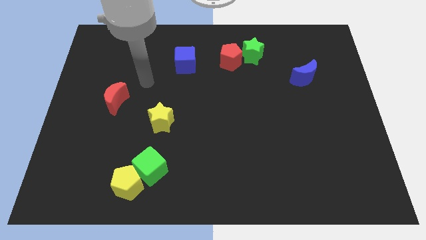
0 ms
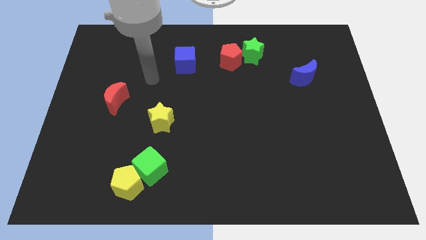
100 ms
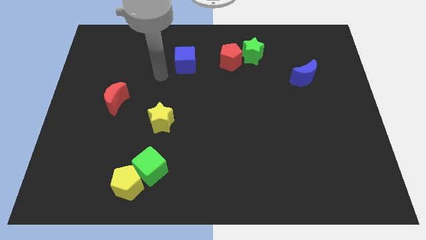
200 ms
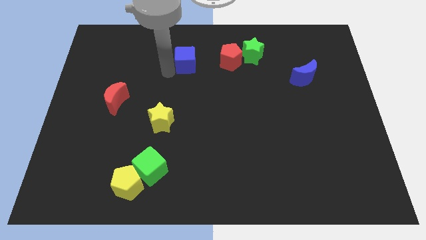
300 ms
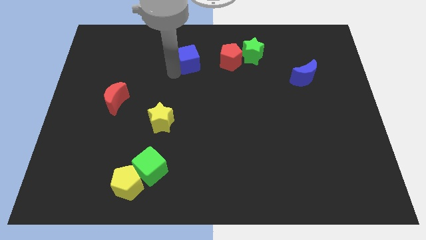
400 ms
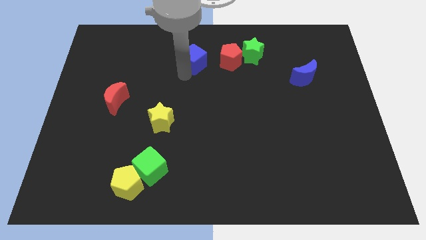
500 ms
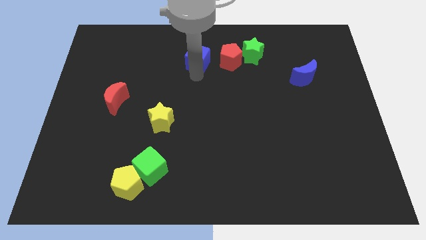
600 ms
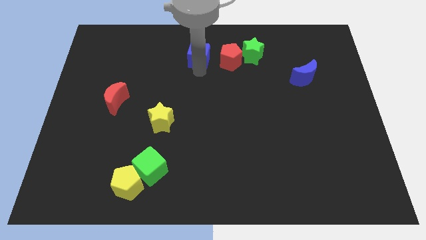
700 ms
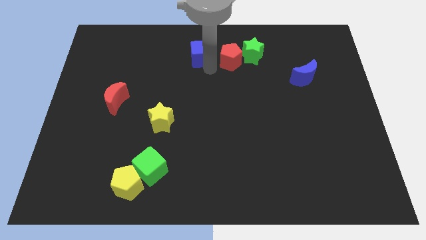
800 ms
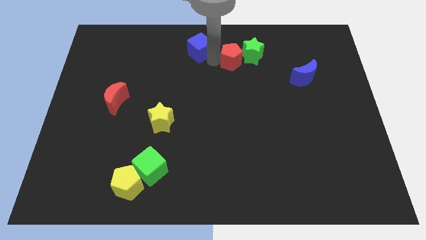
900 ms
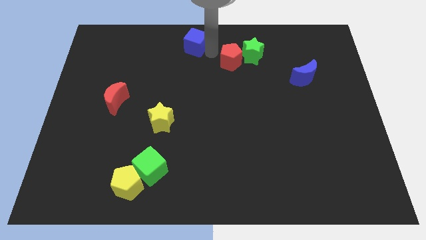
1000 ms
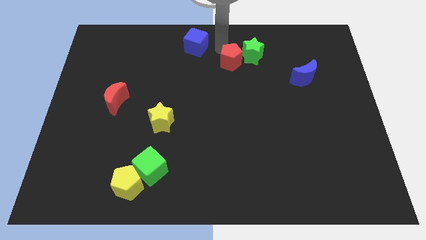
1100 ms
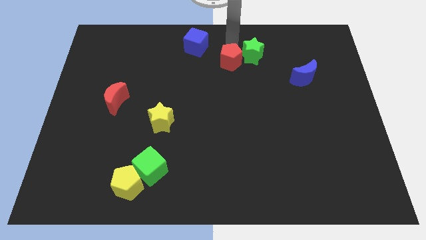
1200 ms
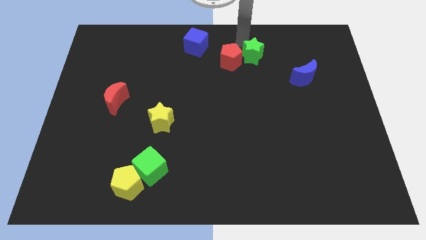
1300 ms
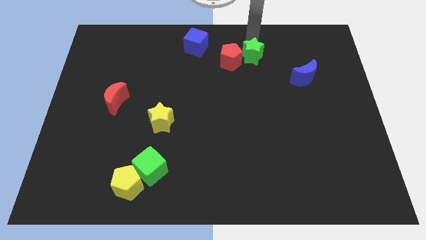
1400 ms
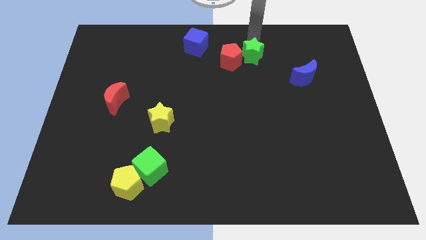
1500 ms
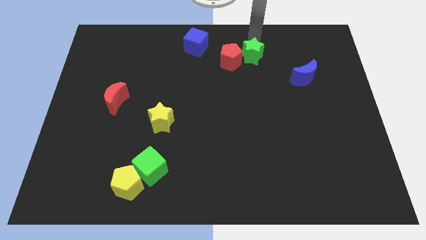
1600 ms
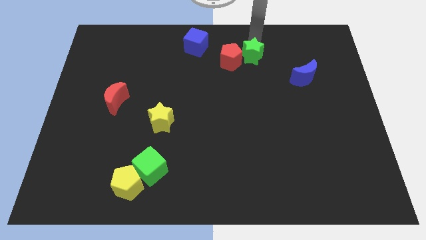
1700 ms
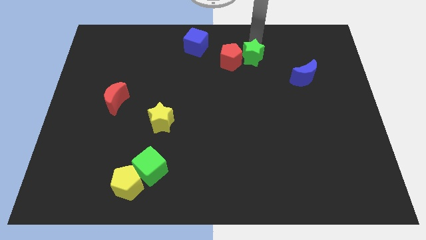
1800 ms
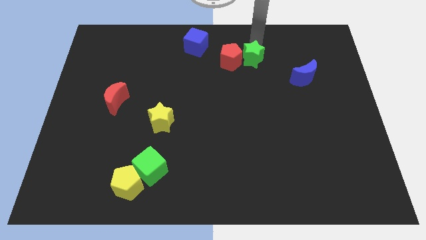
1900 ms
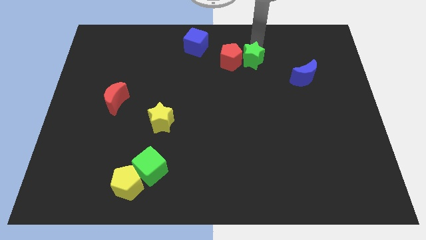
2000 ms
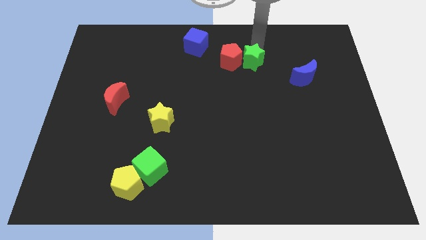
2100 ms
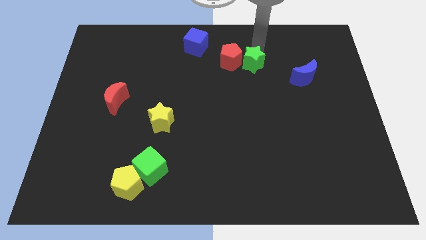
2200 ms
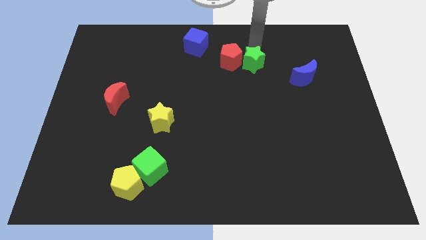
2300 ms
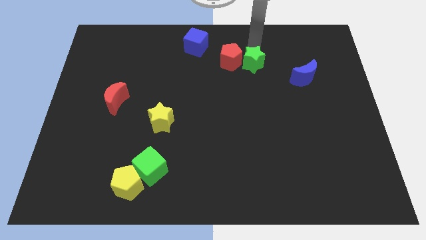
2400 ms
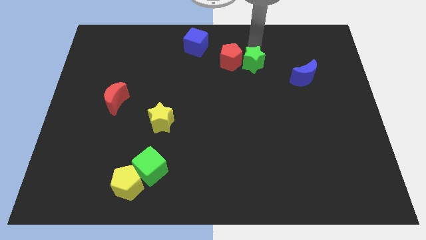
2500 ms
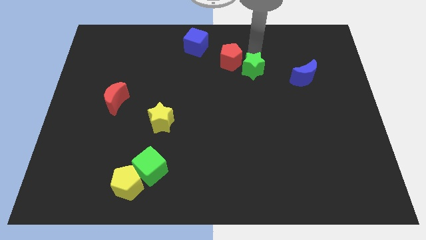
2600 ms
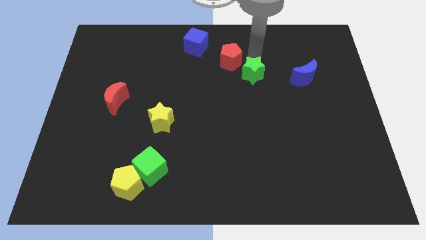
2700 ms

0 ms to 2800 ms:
slightly move the green star downwards

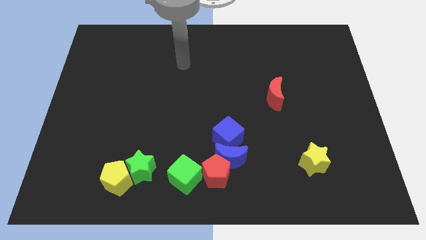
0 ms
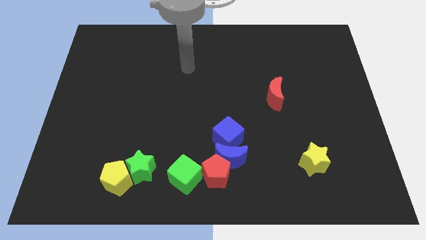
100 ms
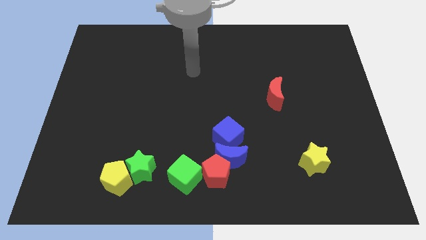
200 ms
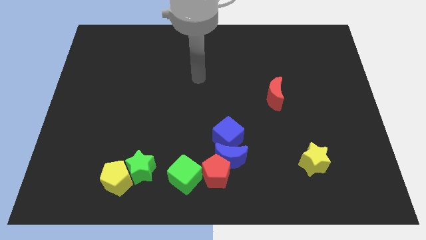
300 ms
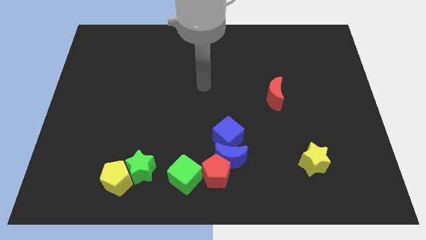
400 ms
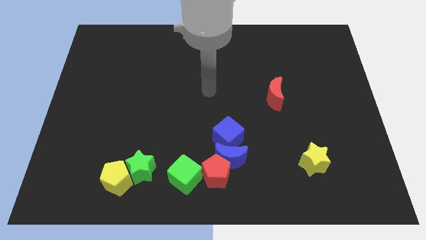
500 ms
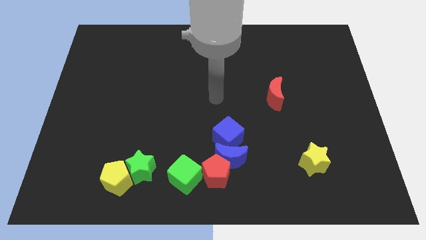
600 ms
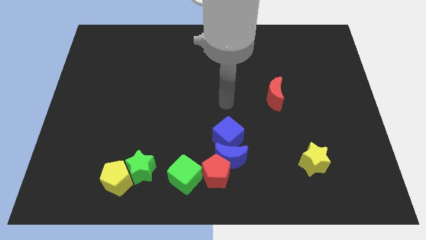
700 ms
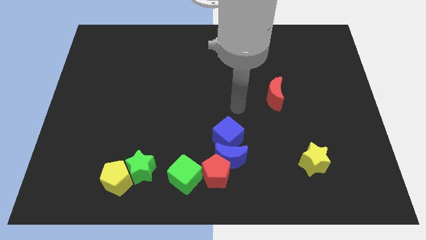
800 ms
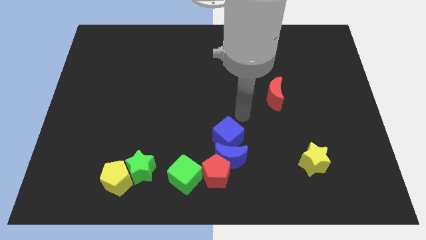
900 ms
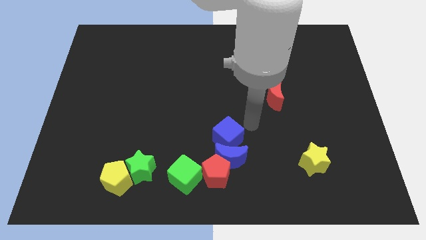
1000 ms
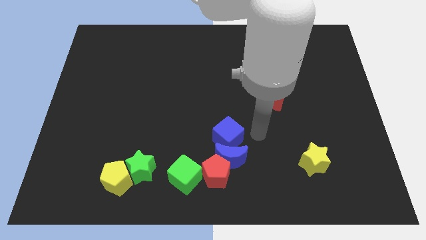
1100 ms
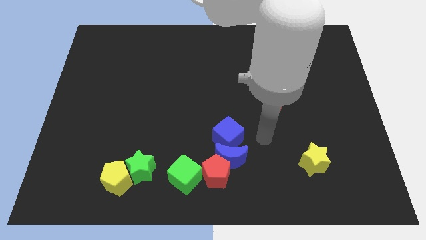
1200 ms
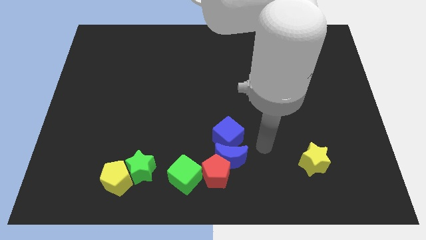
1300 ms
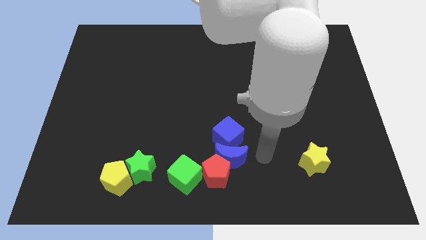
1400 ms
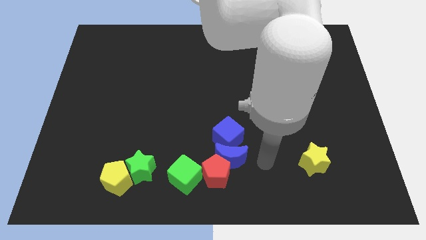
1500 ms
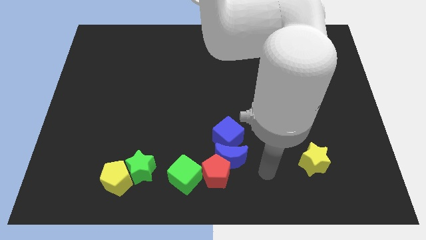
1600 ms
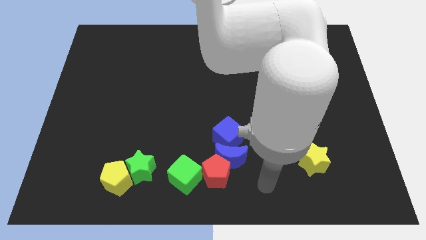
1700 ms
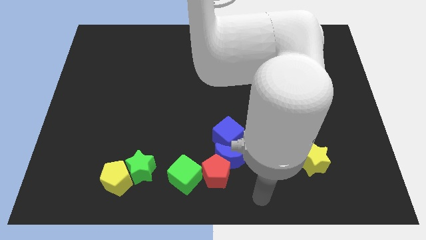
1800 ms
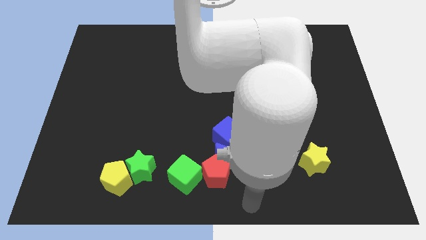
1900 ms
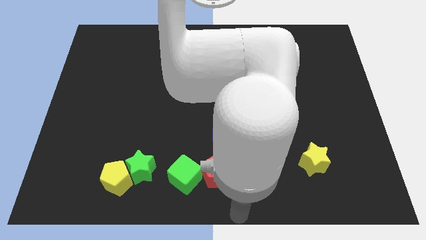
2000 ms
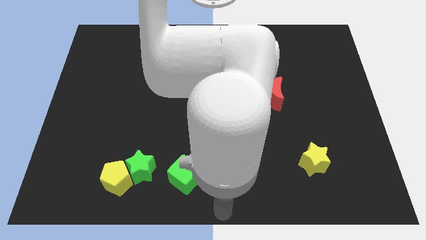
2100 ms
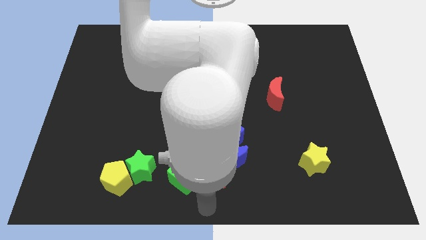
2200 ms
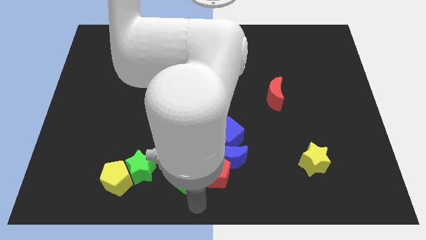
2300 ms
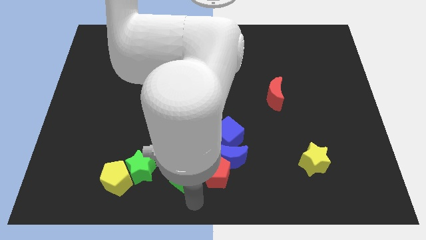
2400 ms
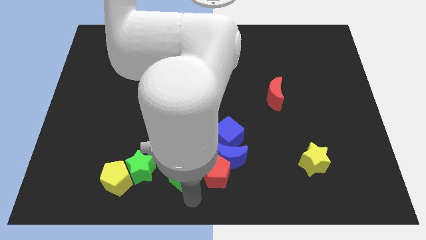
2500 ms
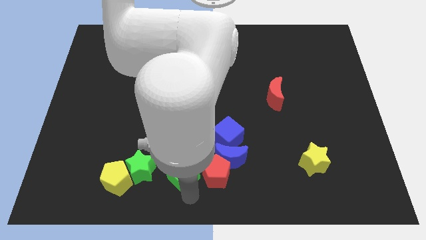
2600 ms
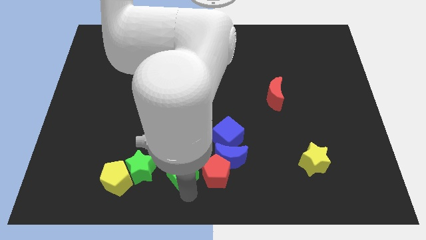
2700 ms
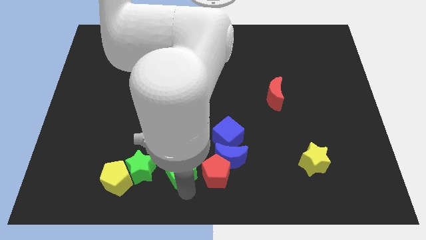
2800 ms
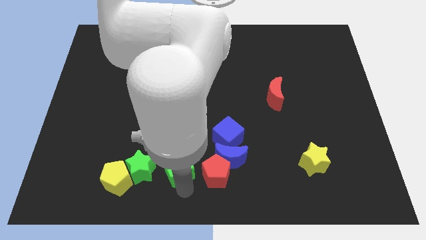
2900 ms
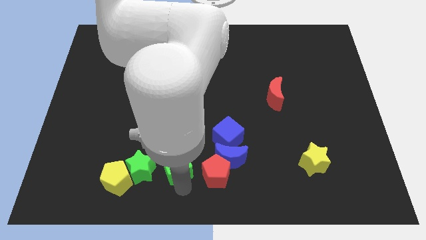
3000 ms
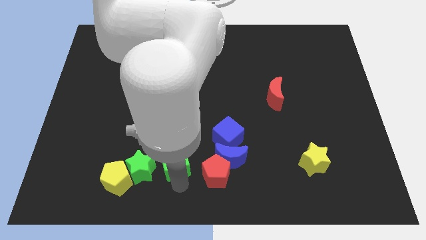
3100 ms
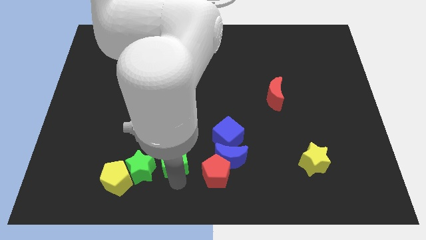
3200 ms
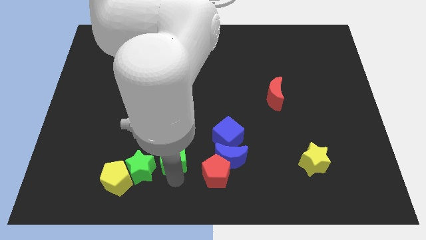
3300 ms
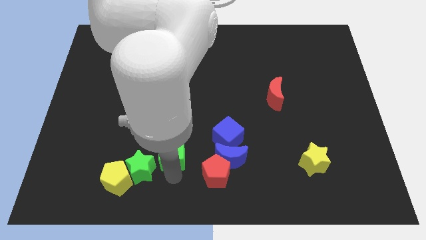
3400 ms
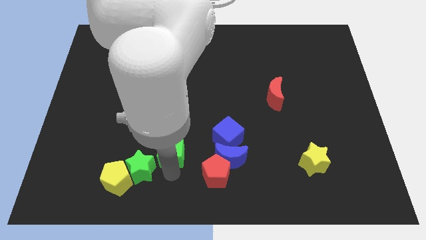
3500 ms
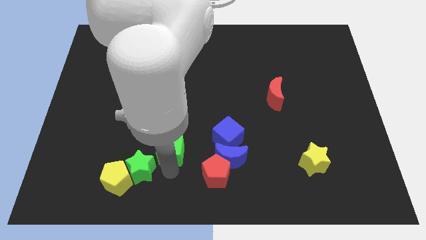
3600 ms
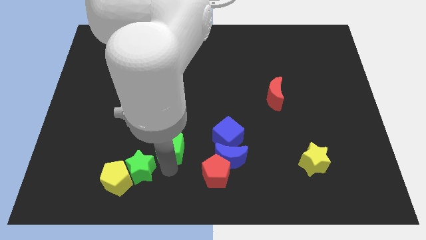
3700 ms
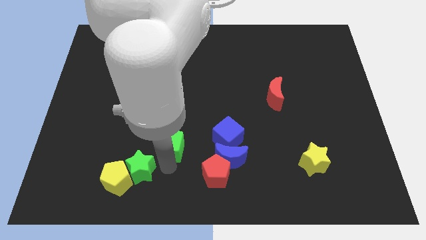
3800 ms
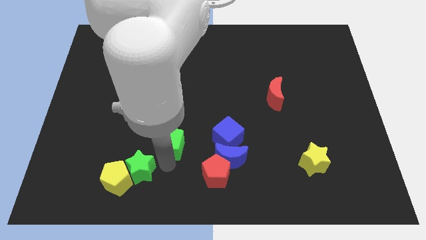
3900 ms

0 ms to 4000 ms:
push the green cube slightly upwards

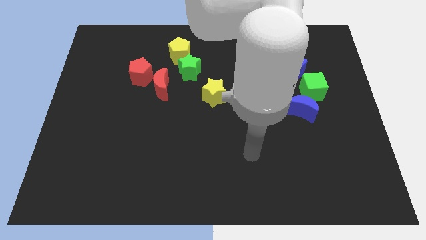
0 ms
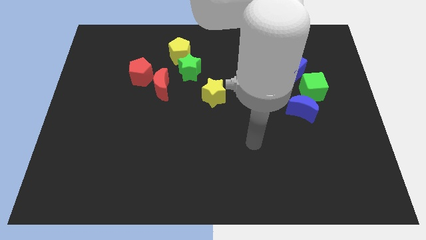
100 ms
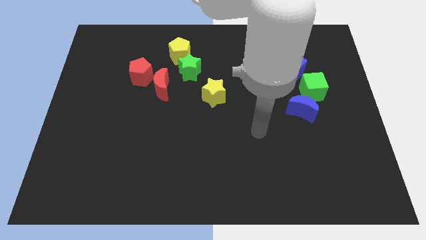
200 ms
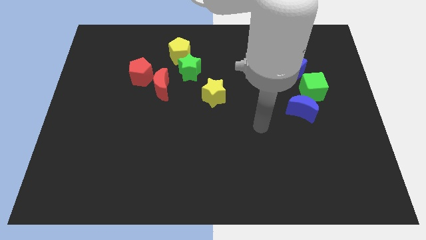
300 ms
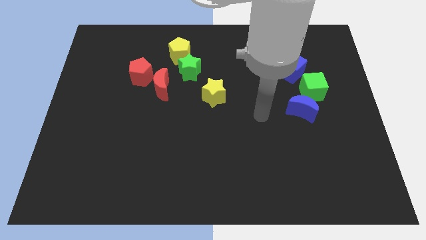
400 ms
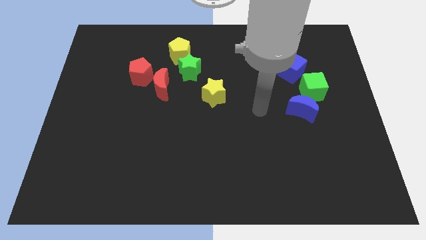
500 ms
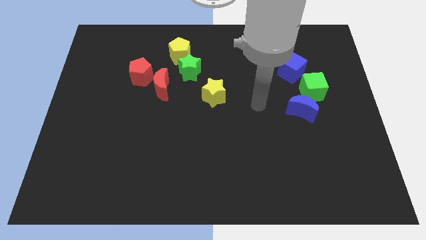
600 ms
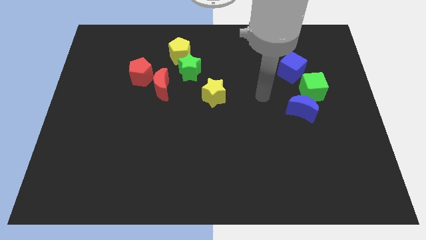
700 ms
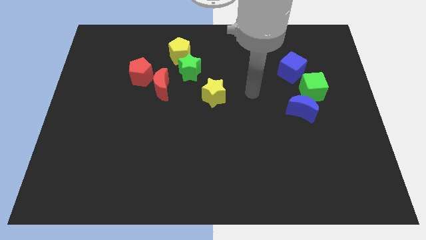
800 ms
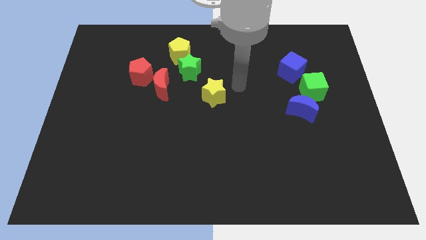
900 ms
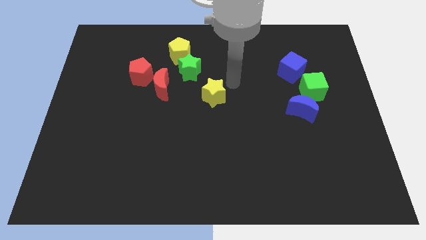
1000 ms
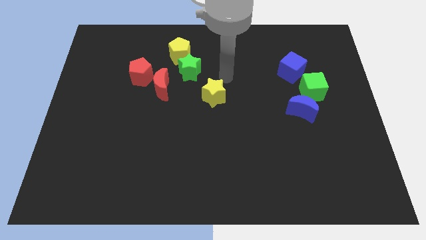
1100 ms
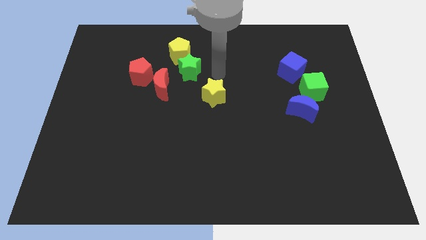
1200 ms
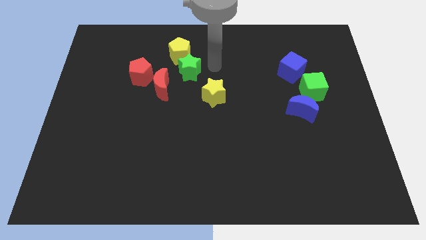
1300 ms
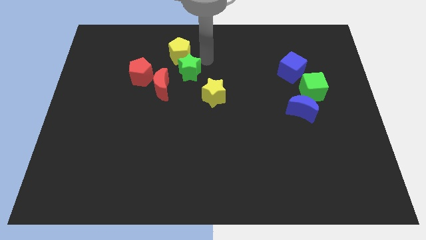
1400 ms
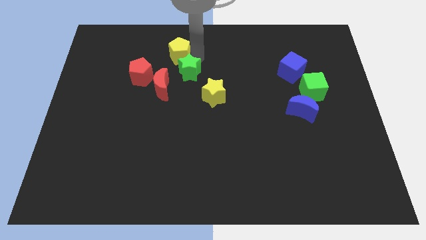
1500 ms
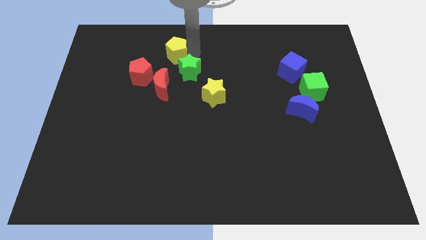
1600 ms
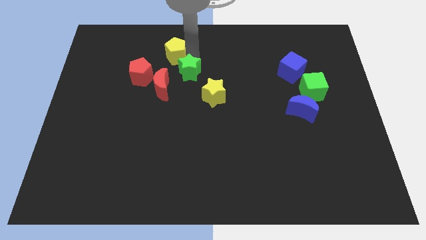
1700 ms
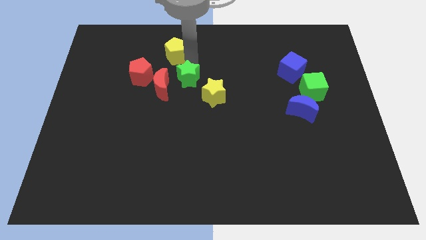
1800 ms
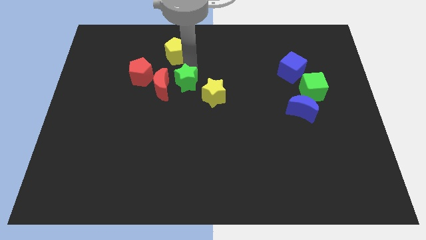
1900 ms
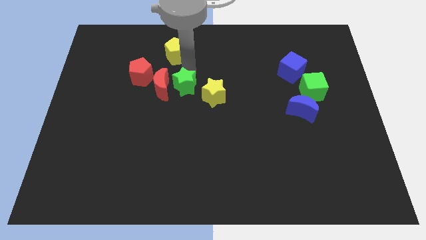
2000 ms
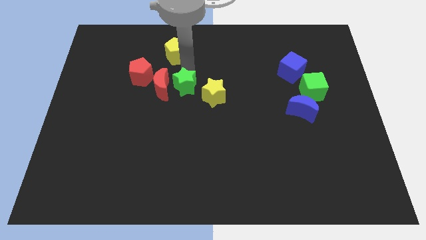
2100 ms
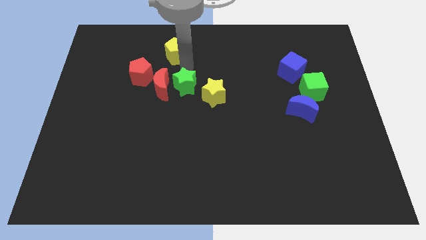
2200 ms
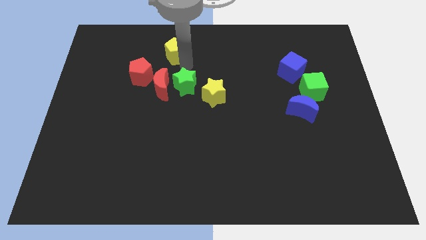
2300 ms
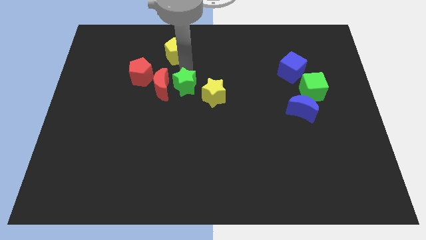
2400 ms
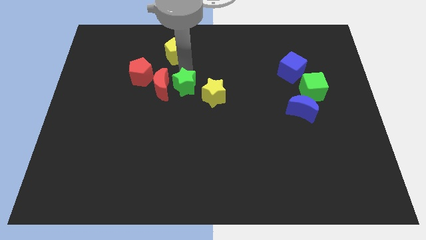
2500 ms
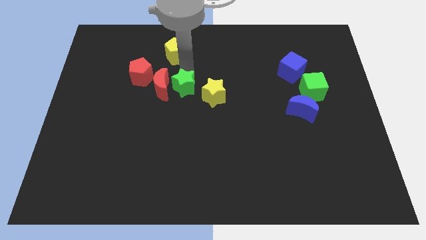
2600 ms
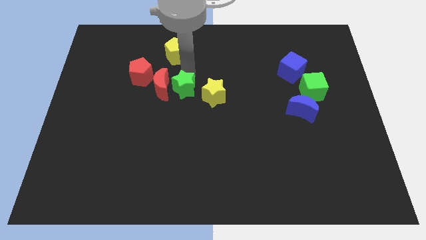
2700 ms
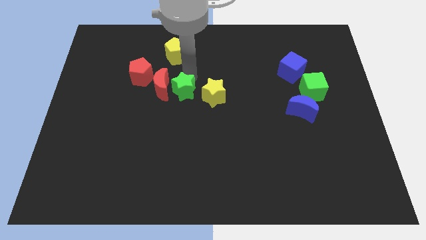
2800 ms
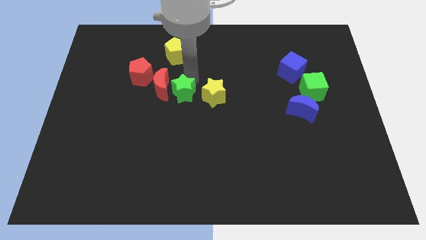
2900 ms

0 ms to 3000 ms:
slide the green star a little down
